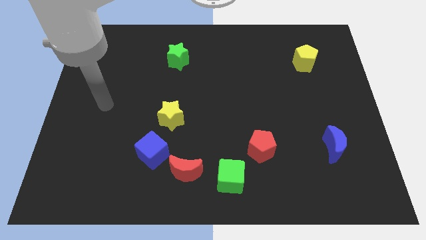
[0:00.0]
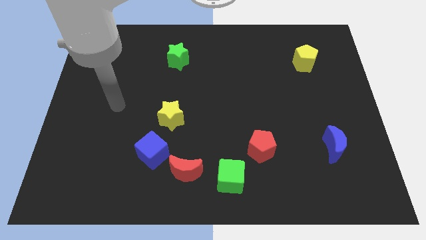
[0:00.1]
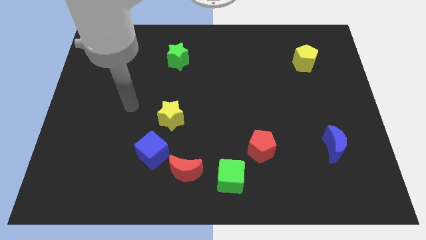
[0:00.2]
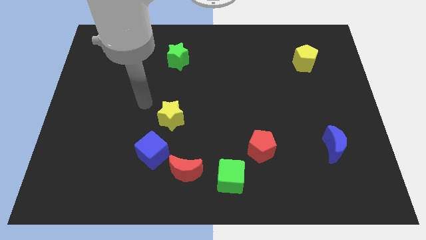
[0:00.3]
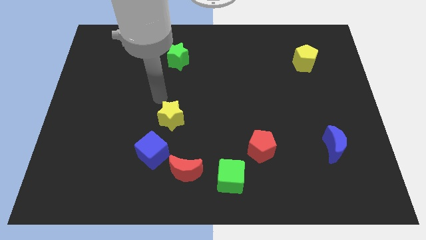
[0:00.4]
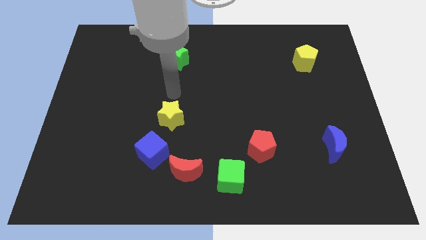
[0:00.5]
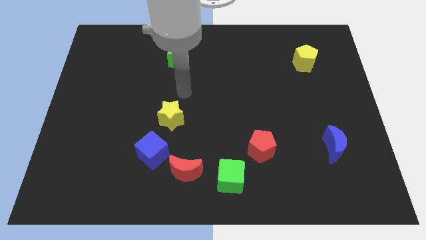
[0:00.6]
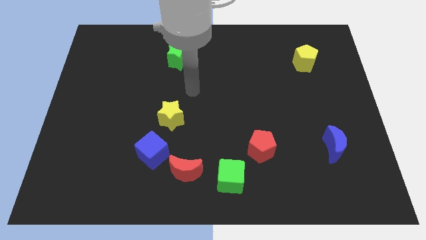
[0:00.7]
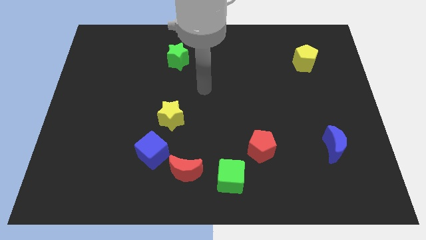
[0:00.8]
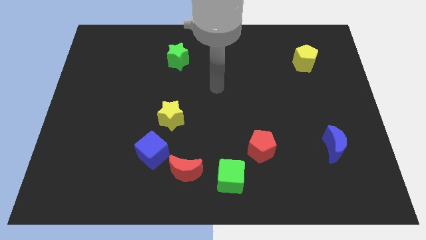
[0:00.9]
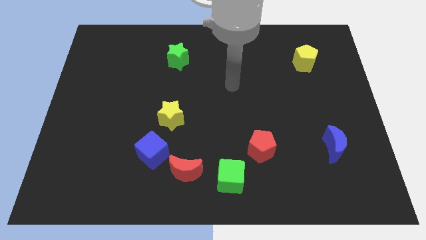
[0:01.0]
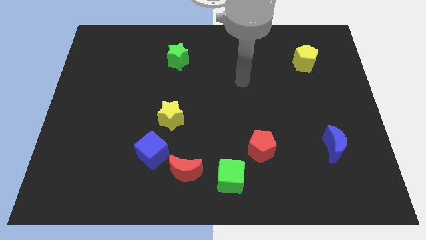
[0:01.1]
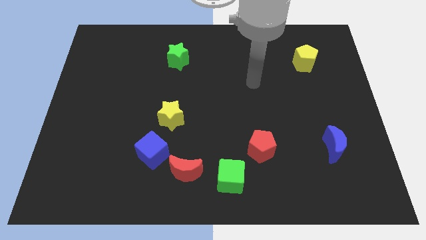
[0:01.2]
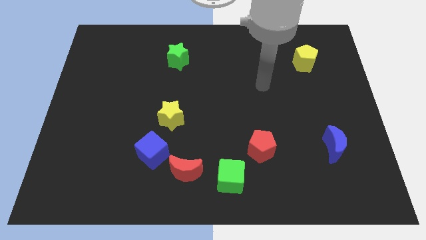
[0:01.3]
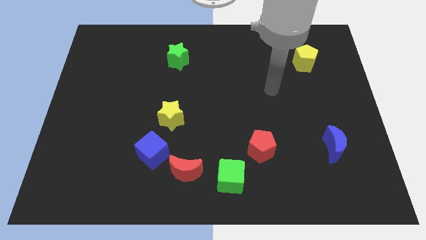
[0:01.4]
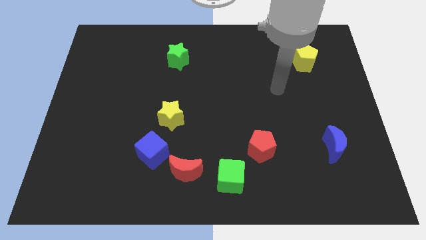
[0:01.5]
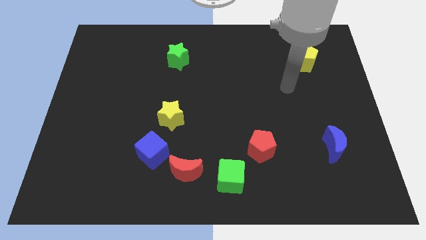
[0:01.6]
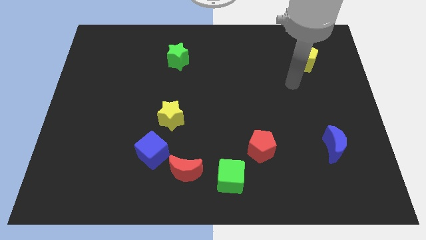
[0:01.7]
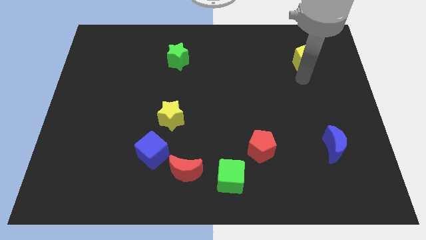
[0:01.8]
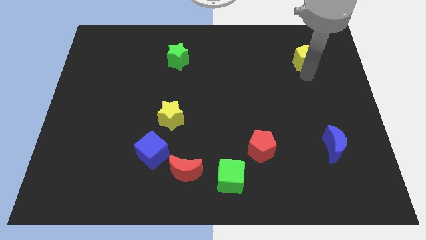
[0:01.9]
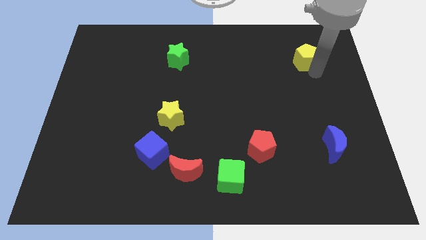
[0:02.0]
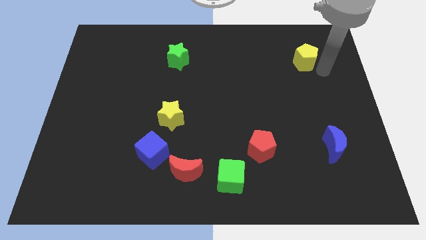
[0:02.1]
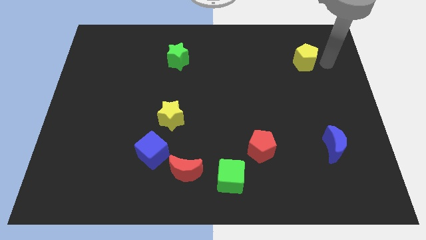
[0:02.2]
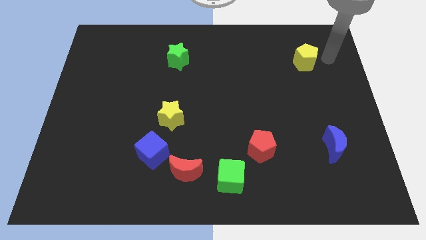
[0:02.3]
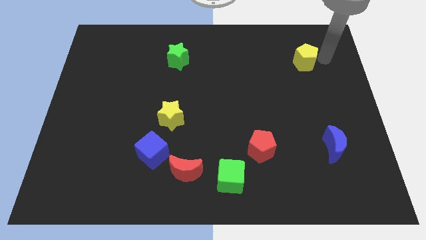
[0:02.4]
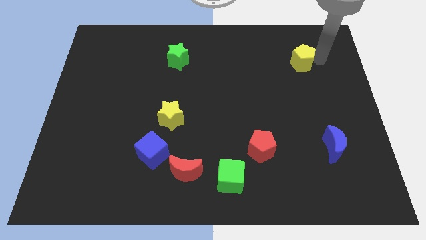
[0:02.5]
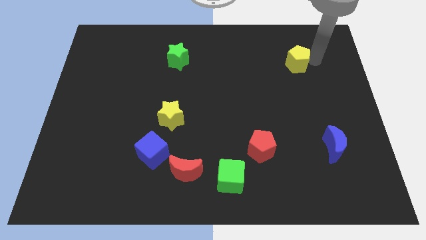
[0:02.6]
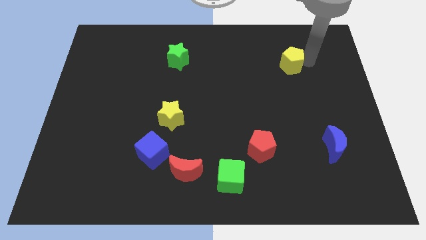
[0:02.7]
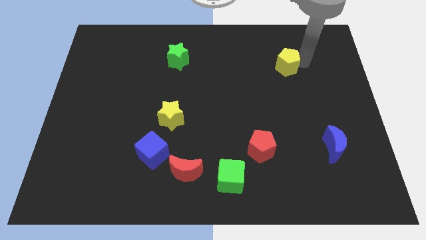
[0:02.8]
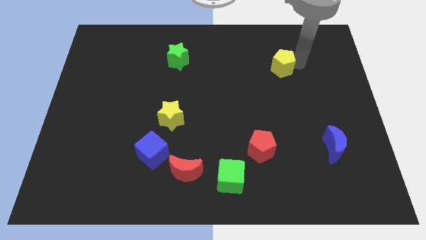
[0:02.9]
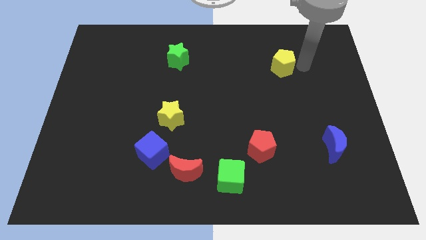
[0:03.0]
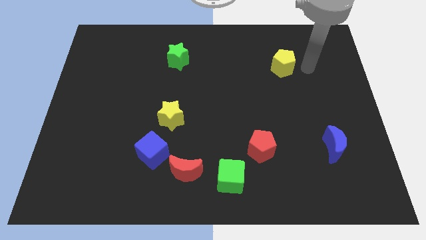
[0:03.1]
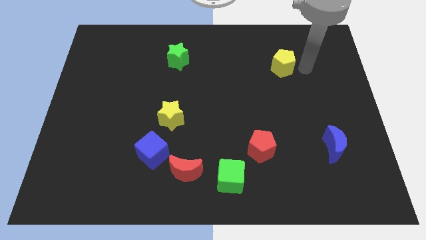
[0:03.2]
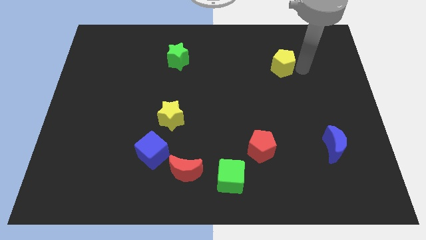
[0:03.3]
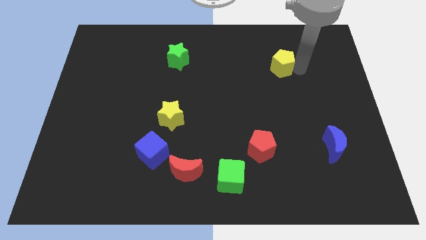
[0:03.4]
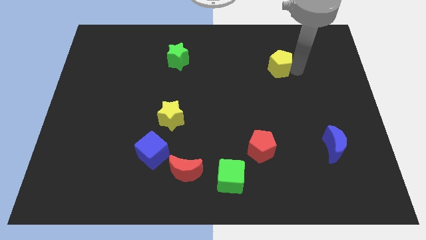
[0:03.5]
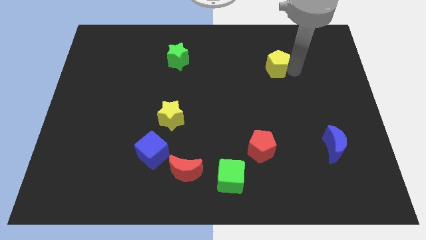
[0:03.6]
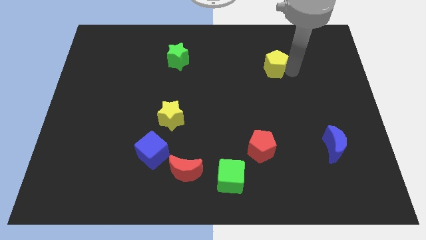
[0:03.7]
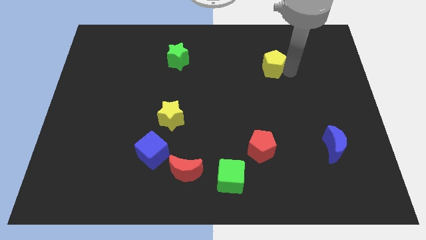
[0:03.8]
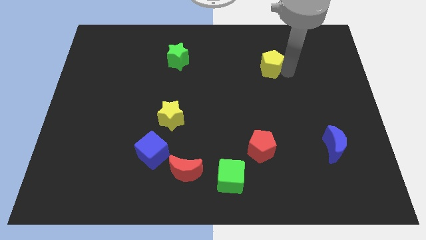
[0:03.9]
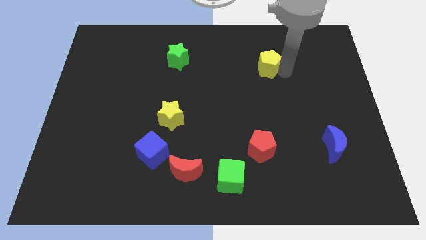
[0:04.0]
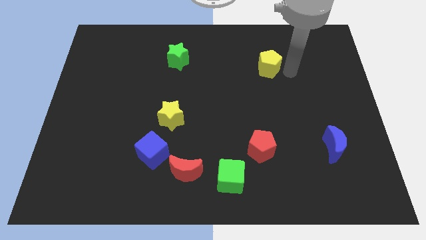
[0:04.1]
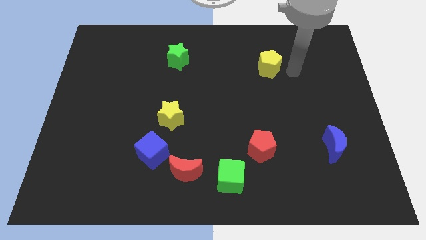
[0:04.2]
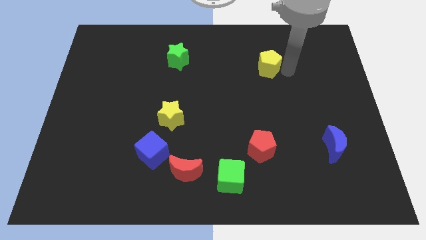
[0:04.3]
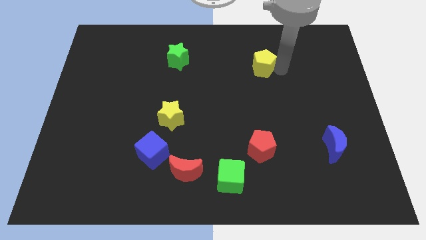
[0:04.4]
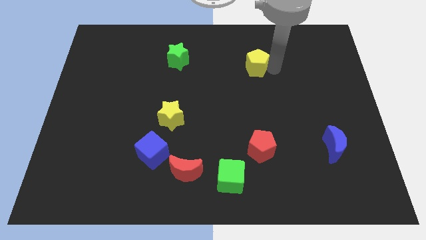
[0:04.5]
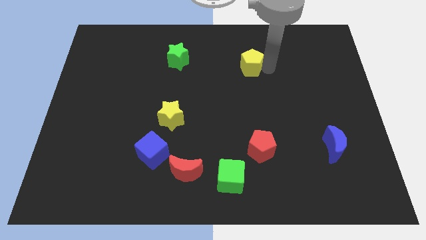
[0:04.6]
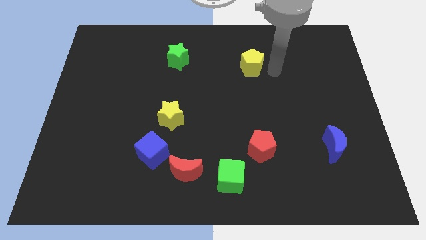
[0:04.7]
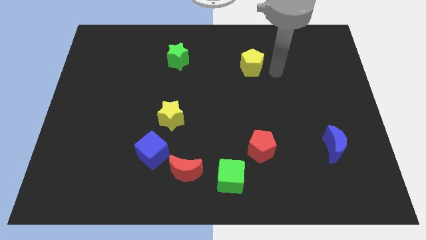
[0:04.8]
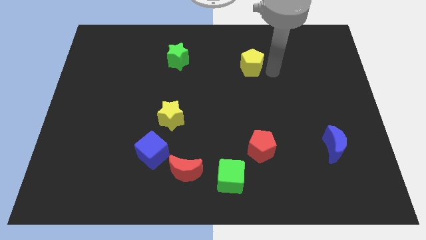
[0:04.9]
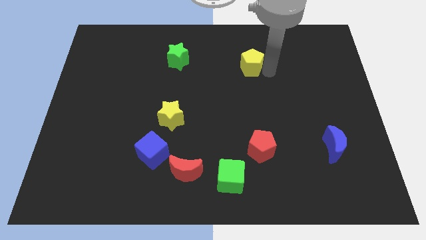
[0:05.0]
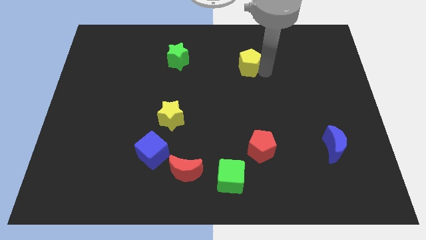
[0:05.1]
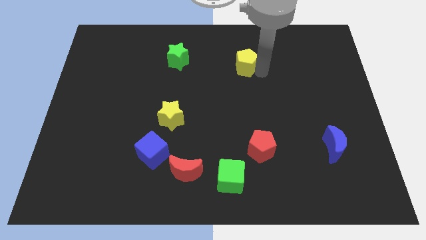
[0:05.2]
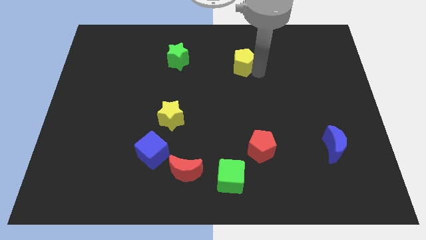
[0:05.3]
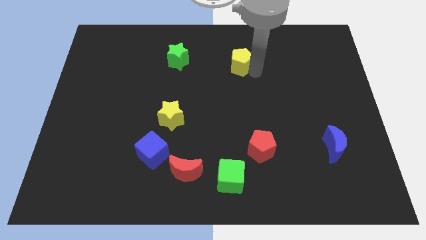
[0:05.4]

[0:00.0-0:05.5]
push the yellow pentagon right of the green star

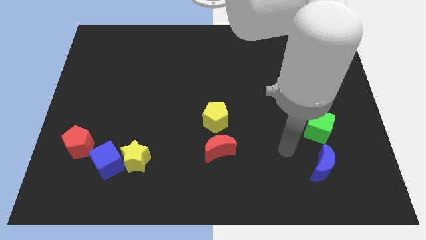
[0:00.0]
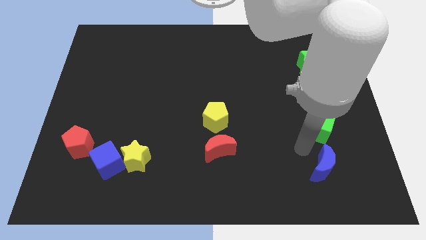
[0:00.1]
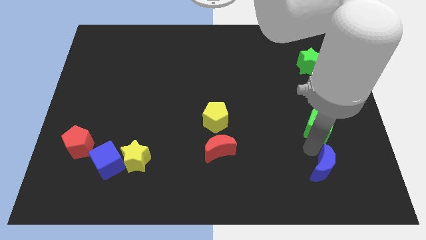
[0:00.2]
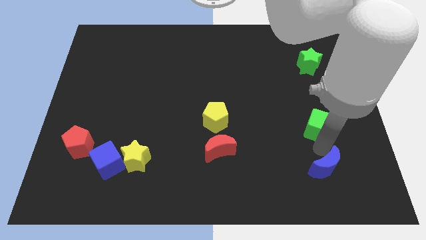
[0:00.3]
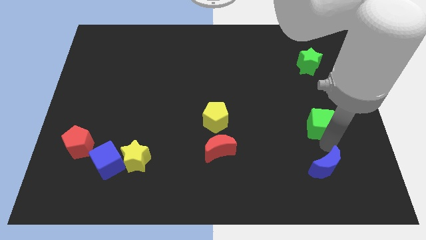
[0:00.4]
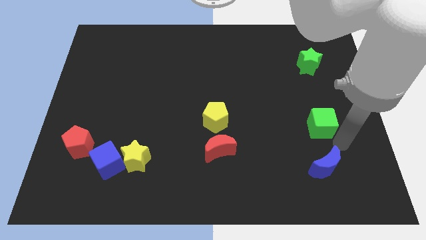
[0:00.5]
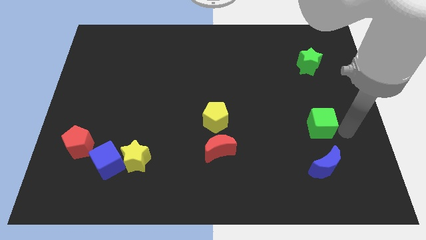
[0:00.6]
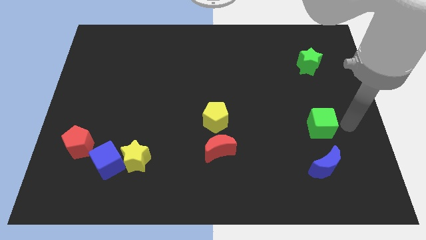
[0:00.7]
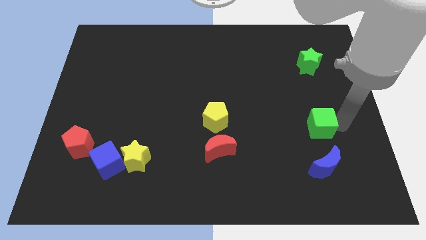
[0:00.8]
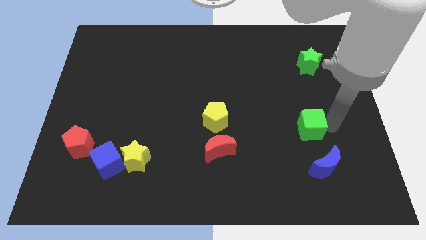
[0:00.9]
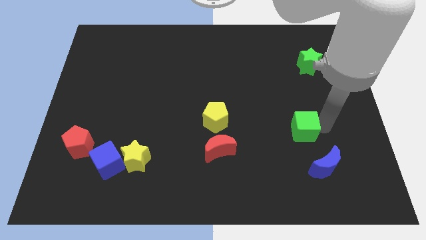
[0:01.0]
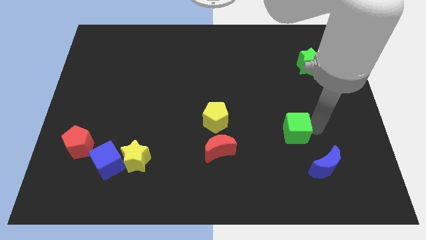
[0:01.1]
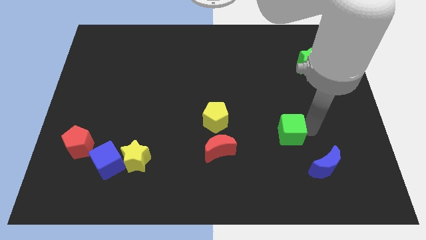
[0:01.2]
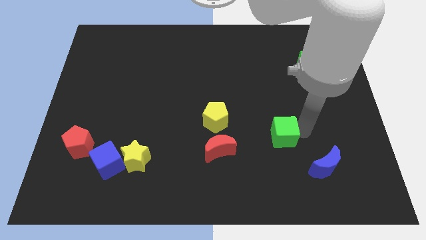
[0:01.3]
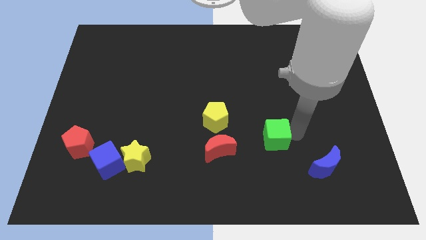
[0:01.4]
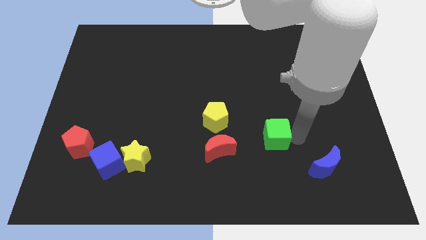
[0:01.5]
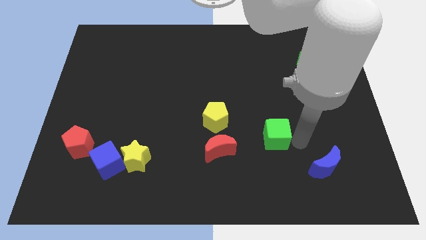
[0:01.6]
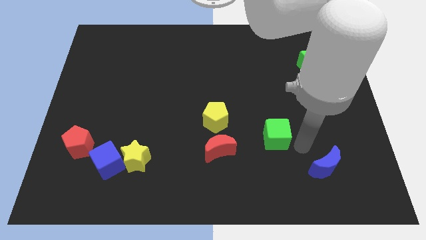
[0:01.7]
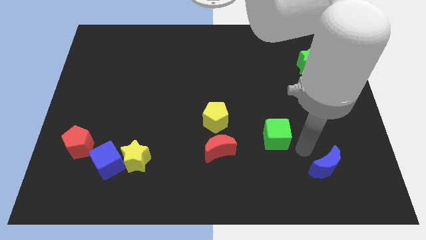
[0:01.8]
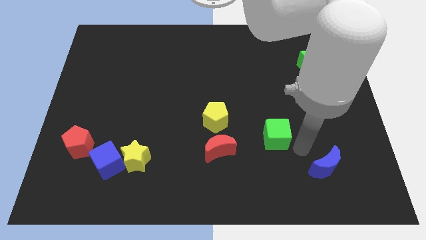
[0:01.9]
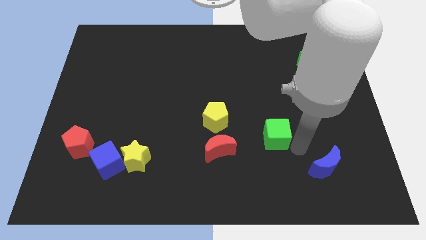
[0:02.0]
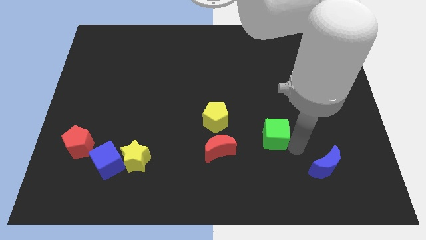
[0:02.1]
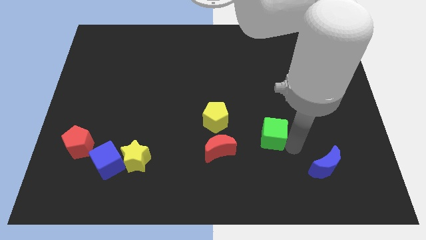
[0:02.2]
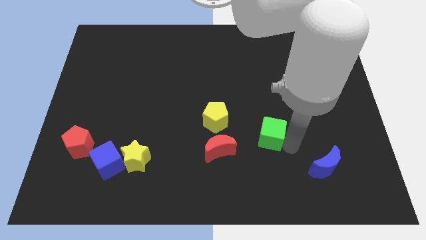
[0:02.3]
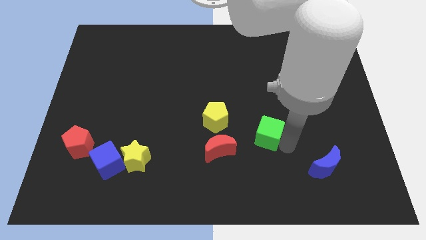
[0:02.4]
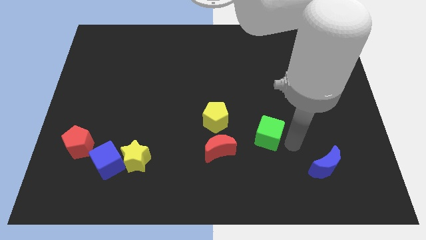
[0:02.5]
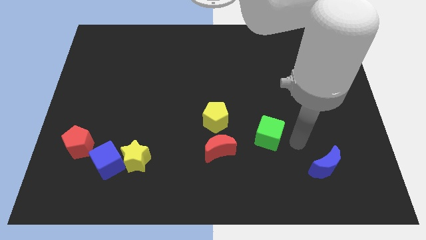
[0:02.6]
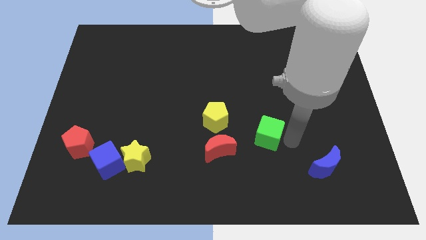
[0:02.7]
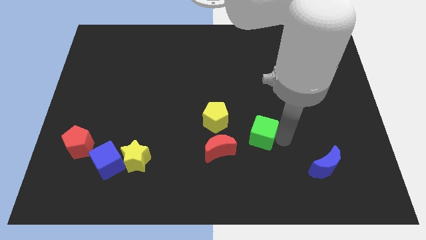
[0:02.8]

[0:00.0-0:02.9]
move the green cube to the top right side of the red moon
